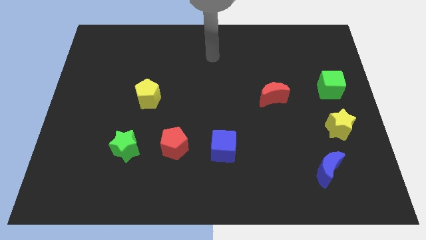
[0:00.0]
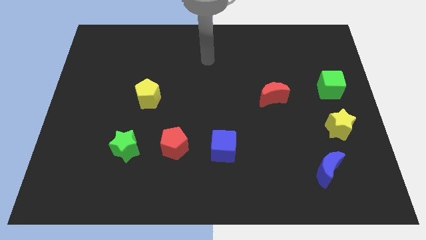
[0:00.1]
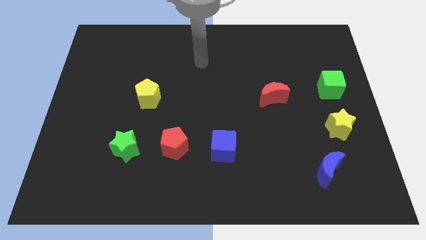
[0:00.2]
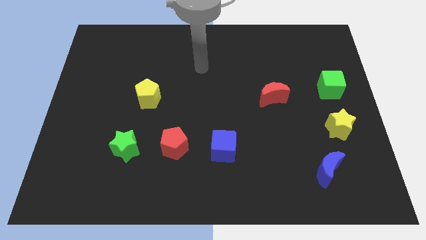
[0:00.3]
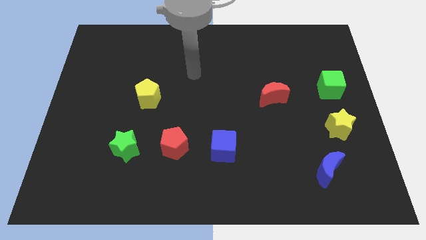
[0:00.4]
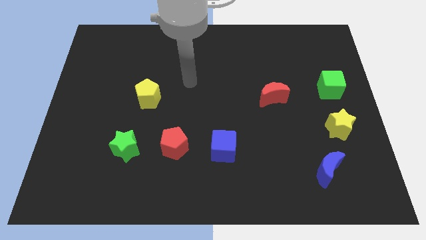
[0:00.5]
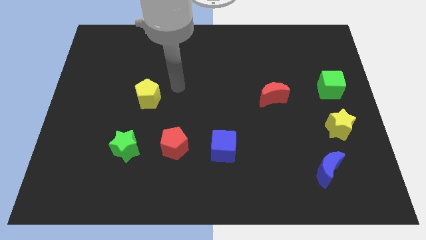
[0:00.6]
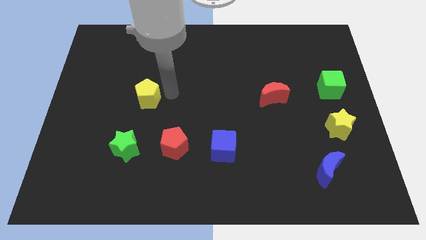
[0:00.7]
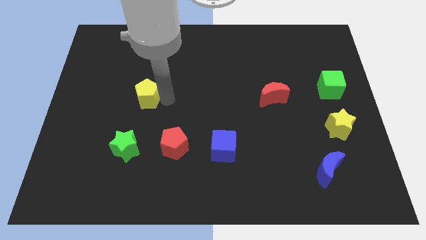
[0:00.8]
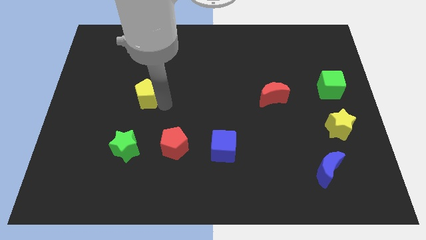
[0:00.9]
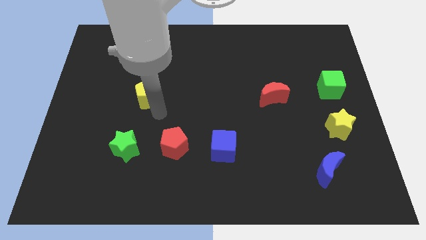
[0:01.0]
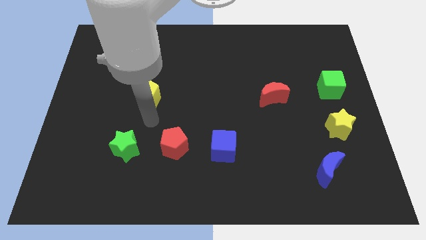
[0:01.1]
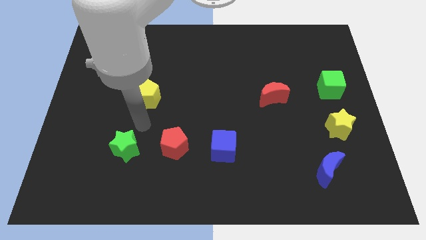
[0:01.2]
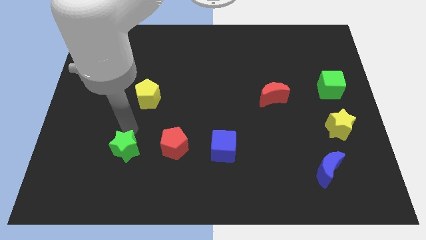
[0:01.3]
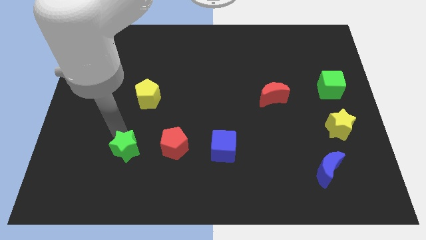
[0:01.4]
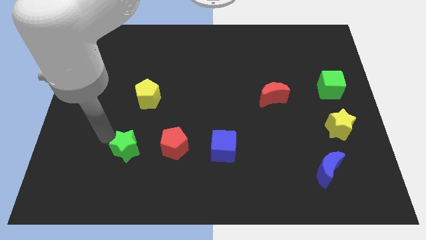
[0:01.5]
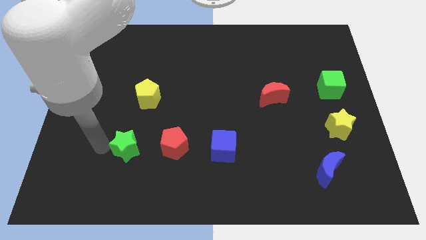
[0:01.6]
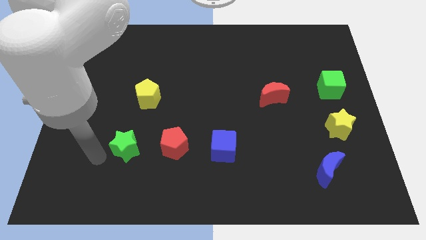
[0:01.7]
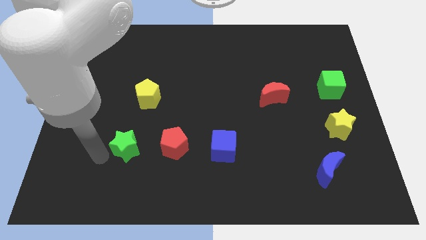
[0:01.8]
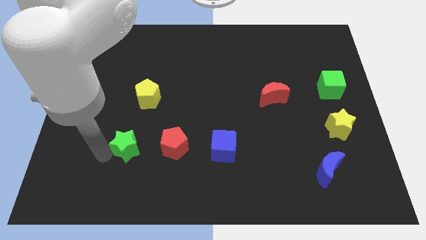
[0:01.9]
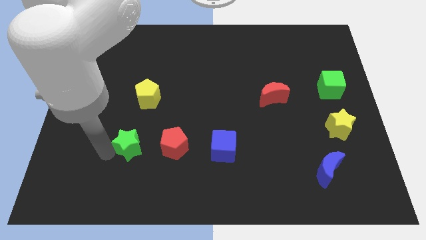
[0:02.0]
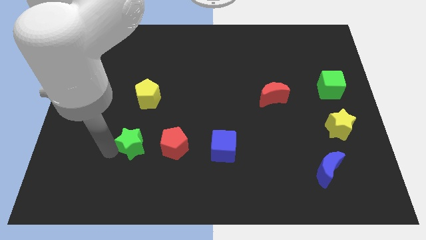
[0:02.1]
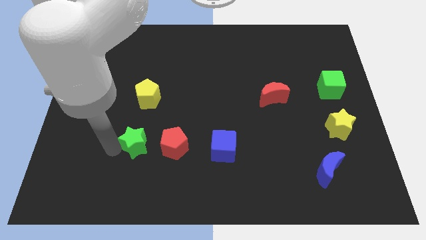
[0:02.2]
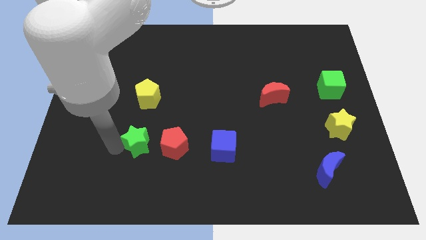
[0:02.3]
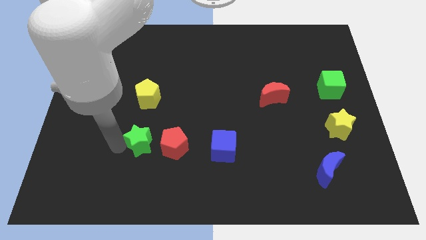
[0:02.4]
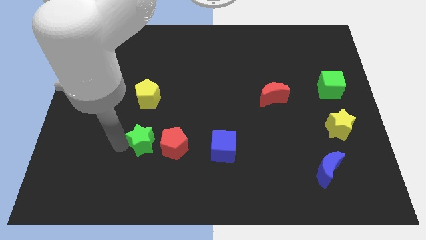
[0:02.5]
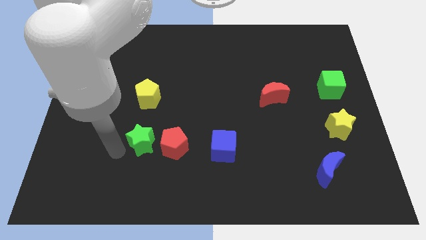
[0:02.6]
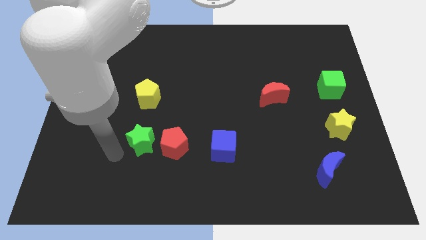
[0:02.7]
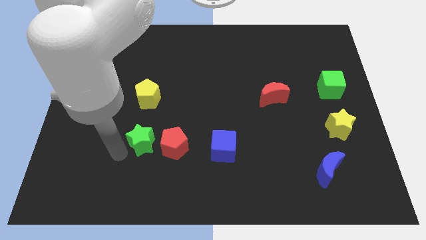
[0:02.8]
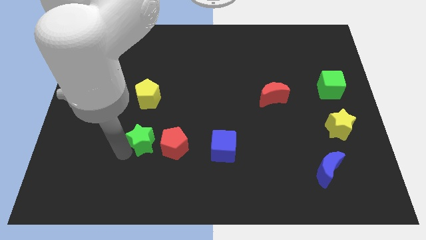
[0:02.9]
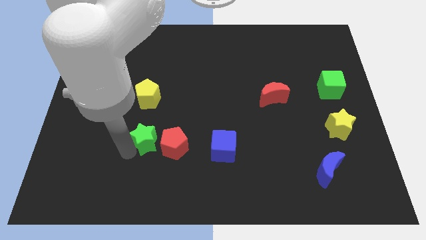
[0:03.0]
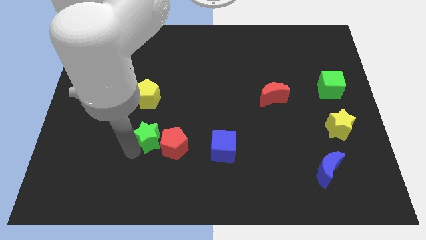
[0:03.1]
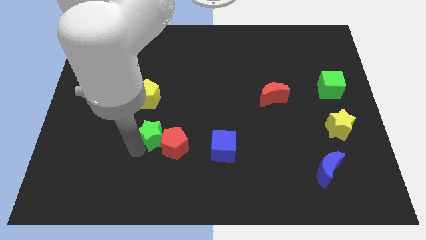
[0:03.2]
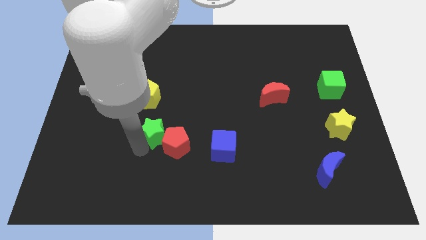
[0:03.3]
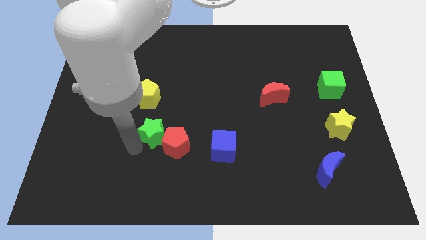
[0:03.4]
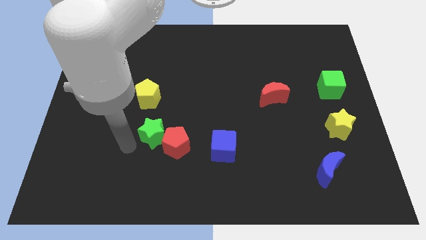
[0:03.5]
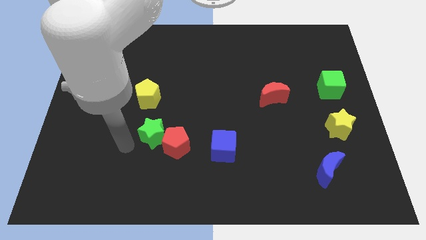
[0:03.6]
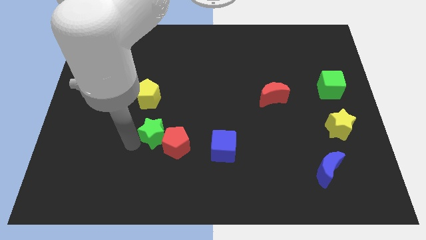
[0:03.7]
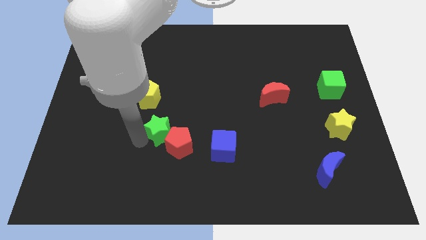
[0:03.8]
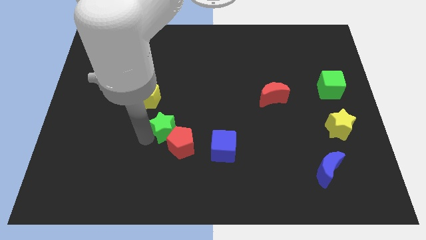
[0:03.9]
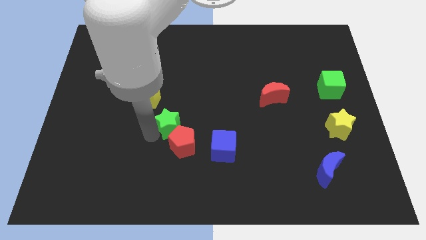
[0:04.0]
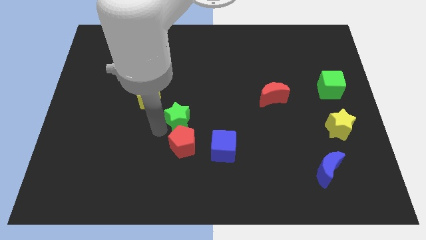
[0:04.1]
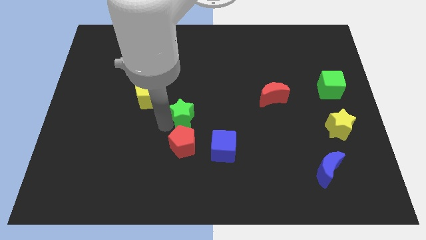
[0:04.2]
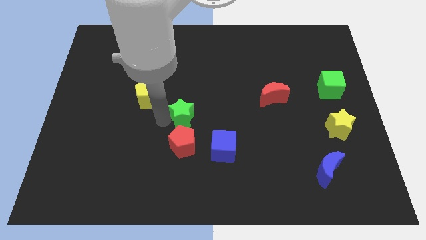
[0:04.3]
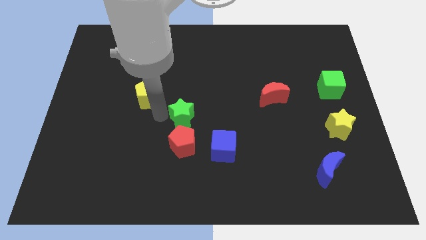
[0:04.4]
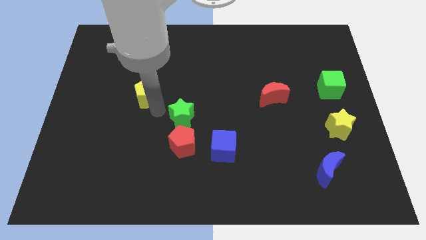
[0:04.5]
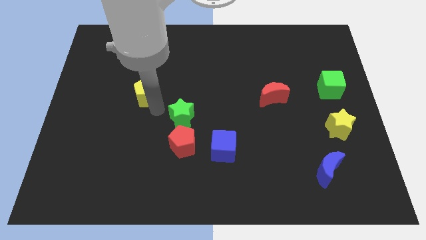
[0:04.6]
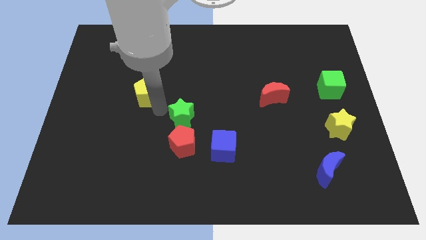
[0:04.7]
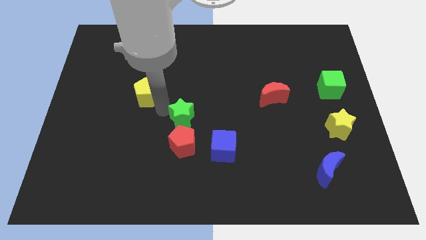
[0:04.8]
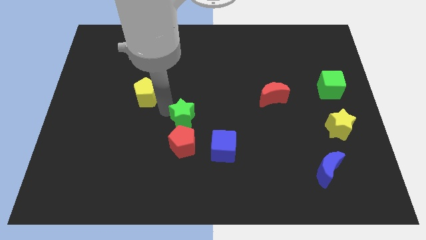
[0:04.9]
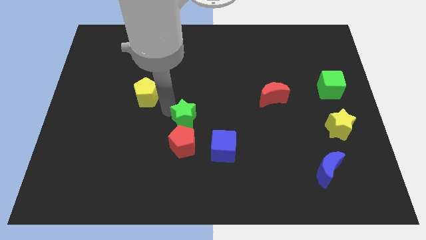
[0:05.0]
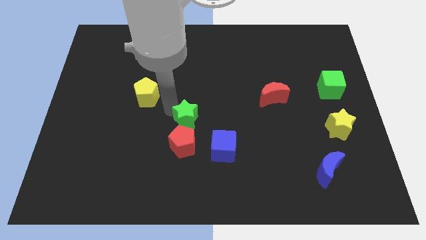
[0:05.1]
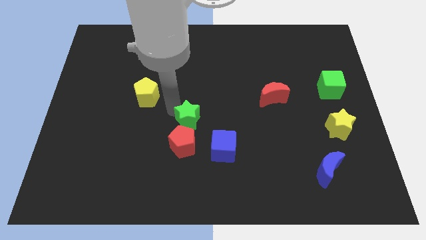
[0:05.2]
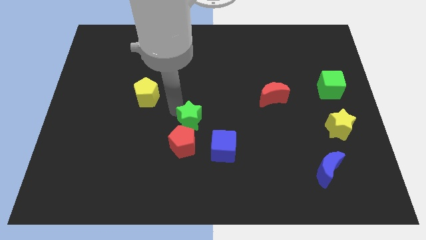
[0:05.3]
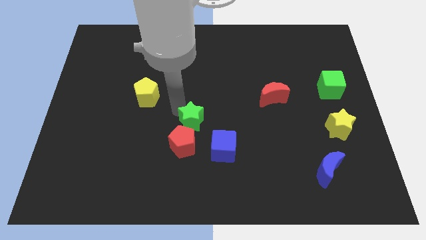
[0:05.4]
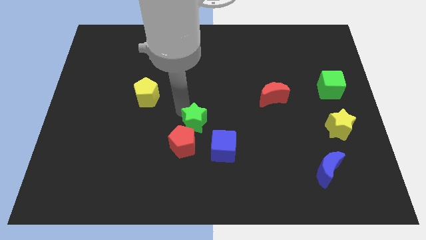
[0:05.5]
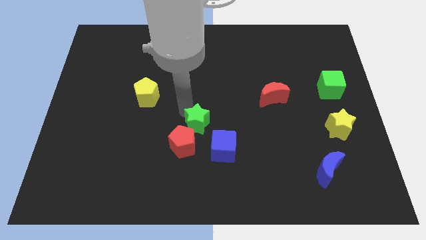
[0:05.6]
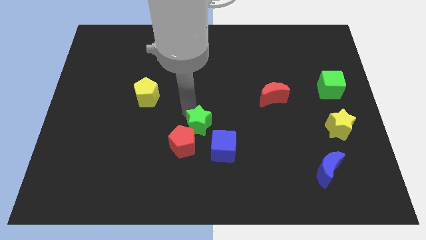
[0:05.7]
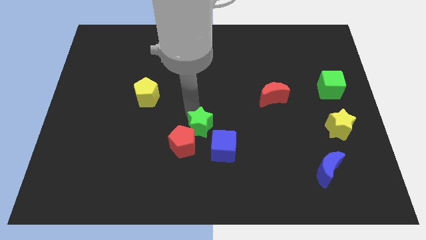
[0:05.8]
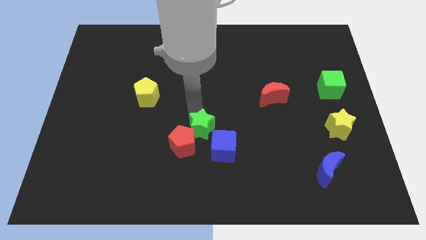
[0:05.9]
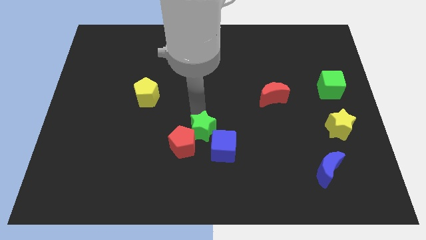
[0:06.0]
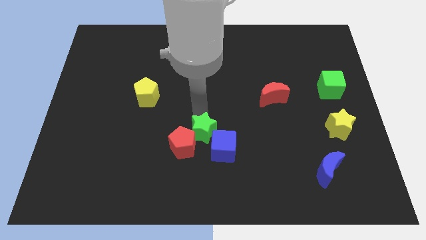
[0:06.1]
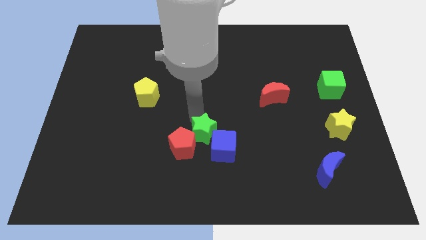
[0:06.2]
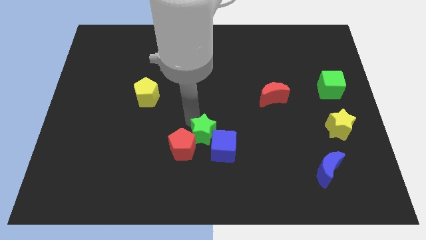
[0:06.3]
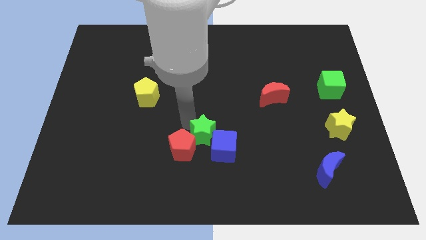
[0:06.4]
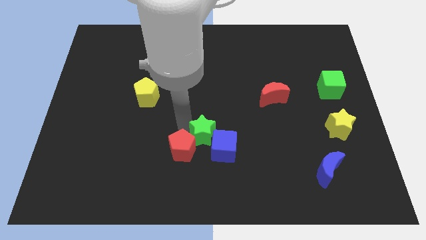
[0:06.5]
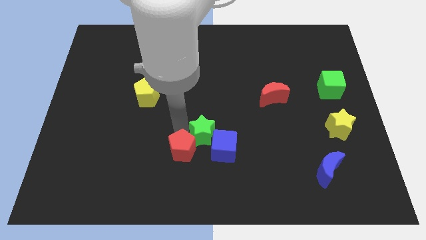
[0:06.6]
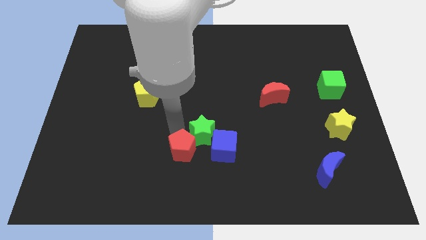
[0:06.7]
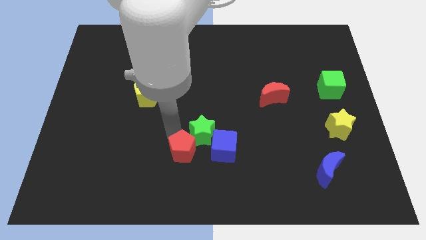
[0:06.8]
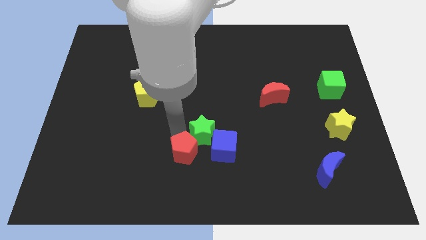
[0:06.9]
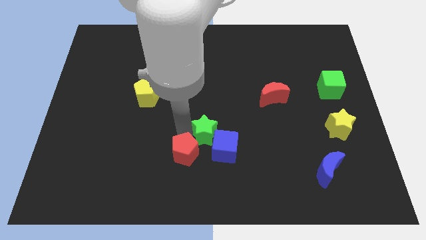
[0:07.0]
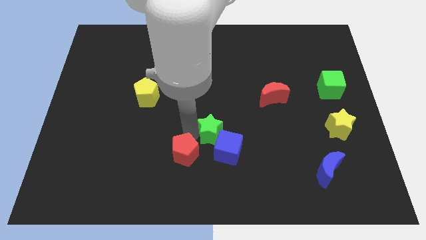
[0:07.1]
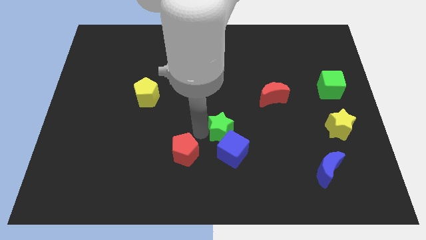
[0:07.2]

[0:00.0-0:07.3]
move the green star right

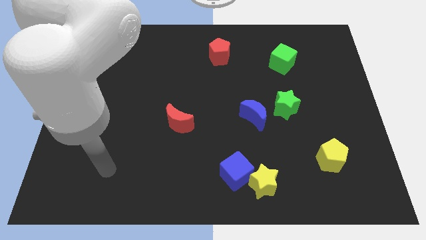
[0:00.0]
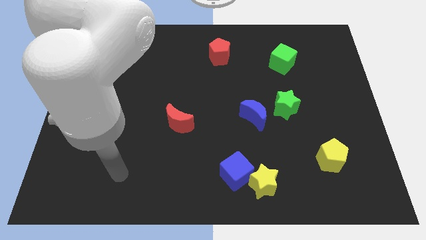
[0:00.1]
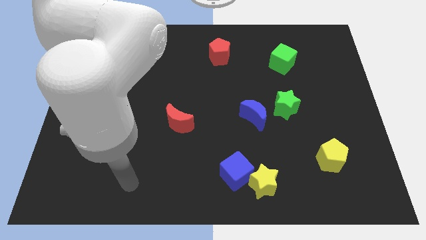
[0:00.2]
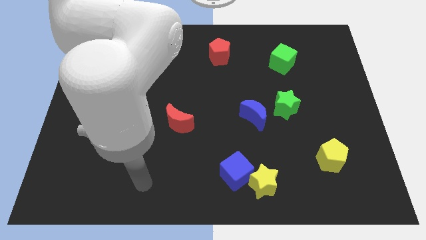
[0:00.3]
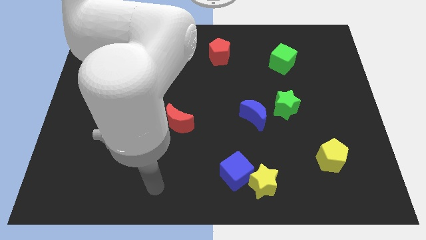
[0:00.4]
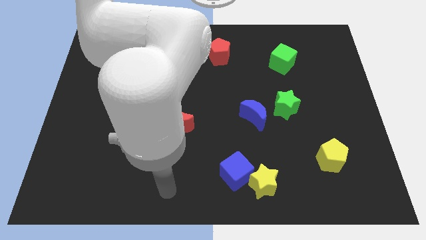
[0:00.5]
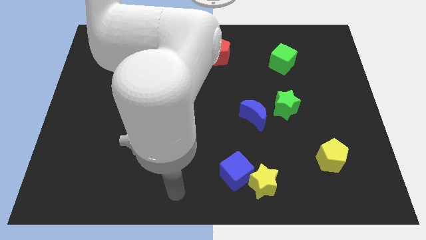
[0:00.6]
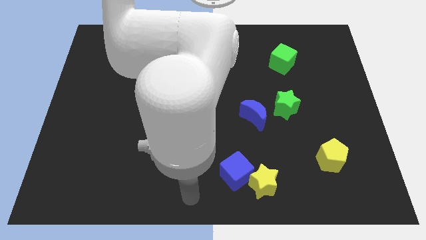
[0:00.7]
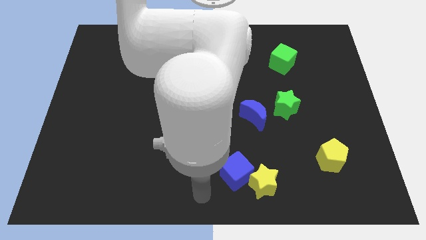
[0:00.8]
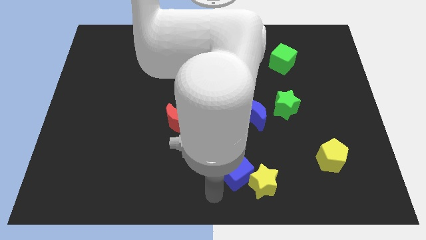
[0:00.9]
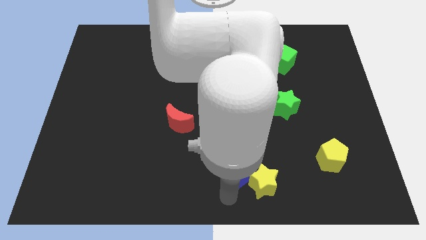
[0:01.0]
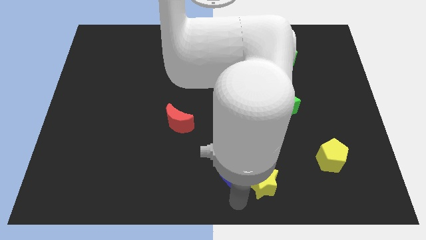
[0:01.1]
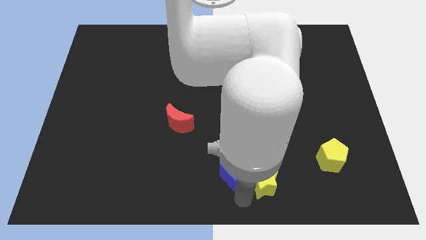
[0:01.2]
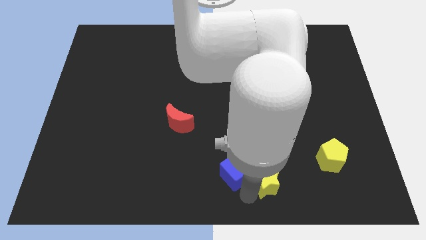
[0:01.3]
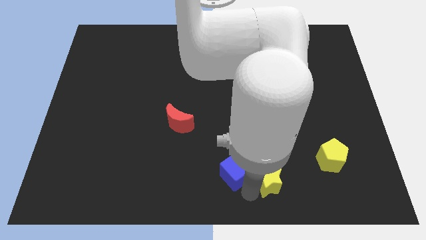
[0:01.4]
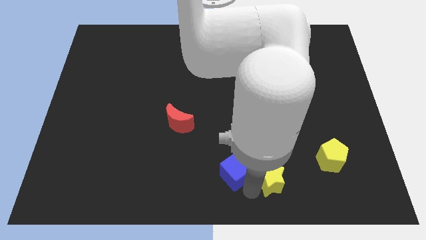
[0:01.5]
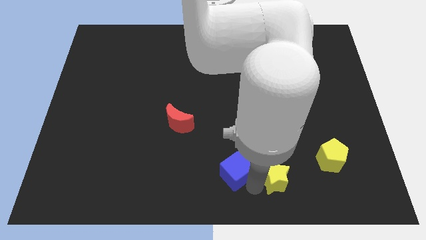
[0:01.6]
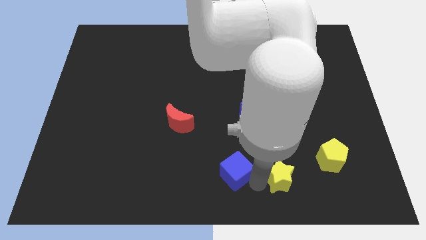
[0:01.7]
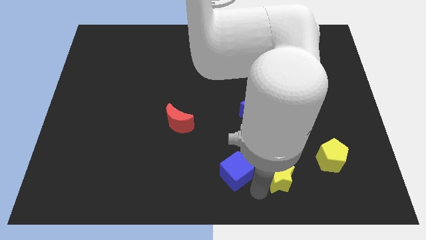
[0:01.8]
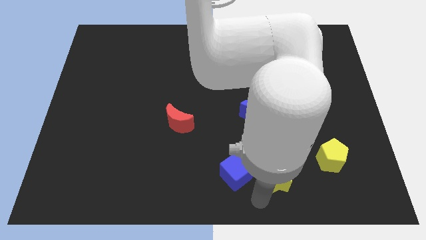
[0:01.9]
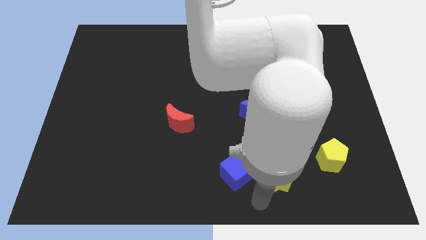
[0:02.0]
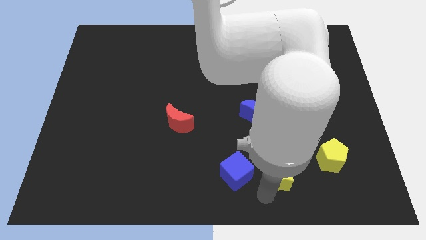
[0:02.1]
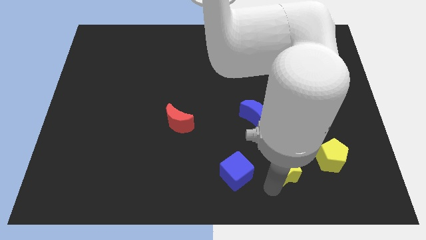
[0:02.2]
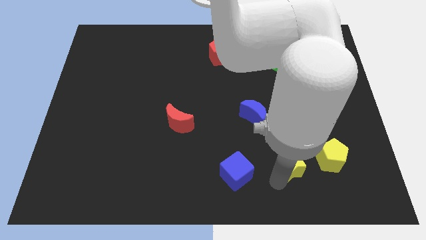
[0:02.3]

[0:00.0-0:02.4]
slightly push the yellow star diagonally upwards and right
